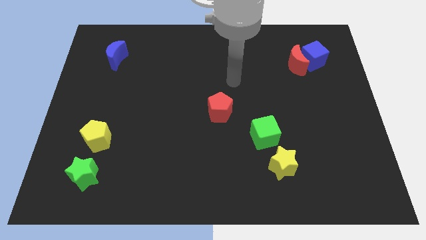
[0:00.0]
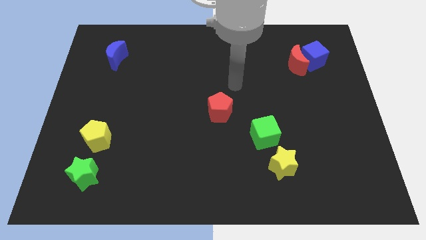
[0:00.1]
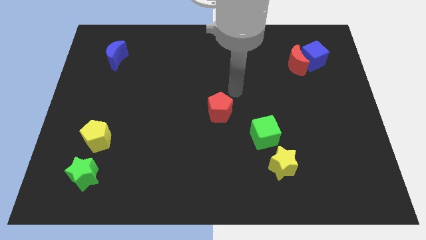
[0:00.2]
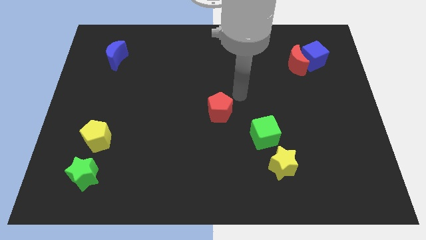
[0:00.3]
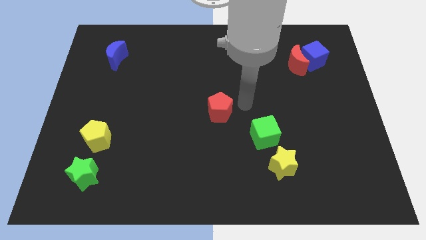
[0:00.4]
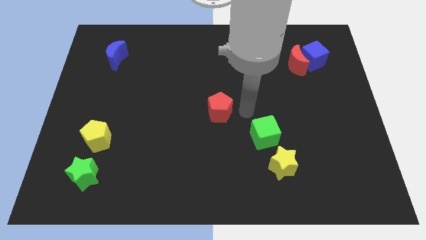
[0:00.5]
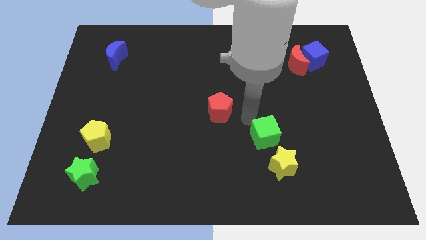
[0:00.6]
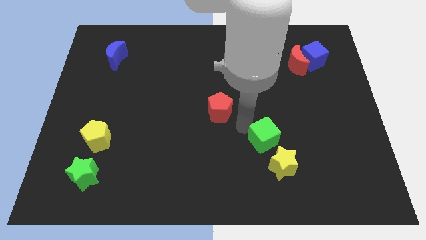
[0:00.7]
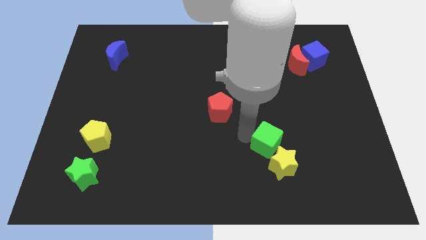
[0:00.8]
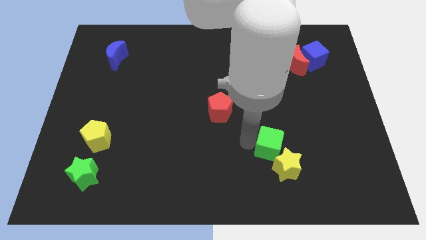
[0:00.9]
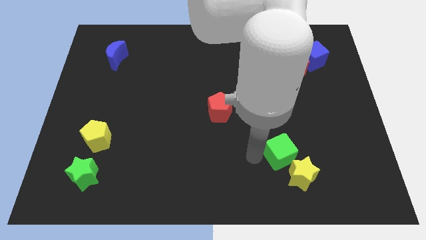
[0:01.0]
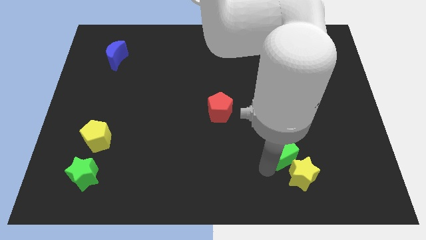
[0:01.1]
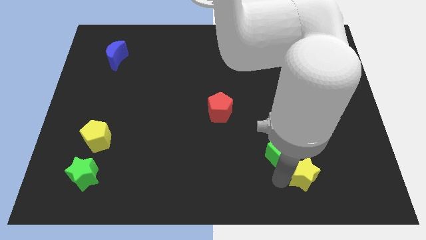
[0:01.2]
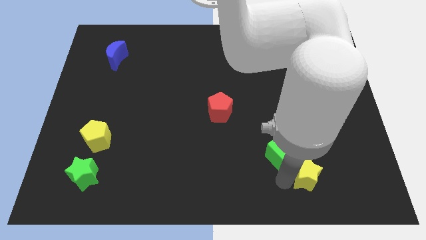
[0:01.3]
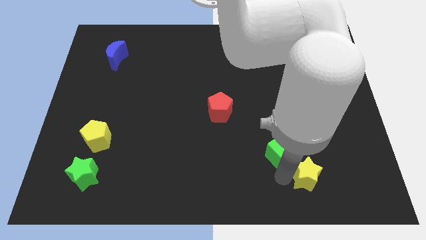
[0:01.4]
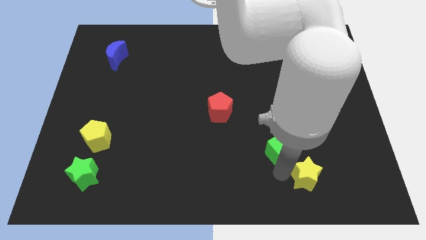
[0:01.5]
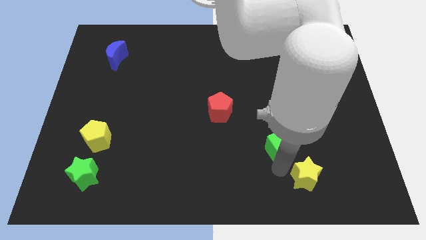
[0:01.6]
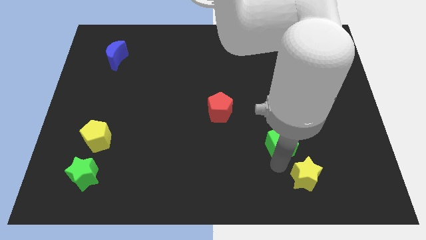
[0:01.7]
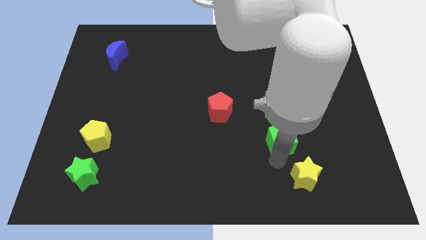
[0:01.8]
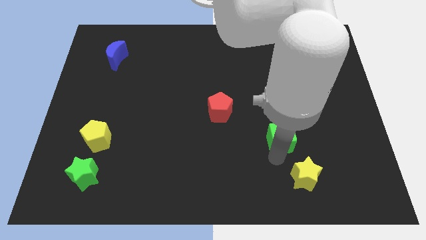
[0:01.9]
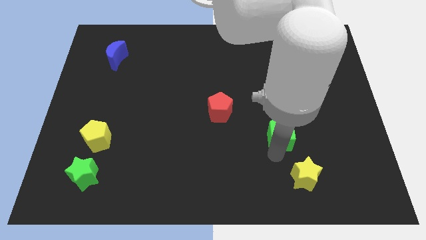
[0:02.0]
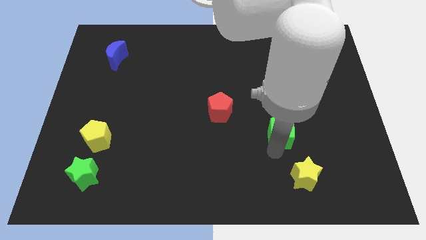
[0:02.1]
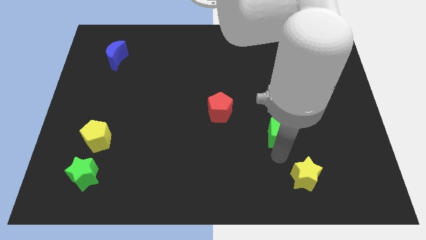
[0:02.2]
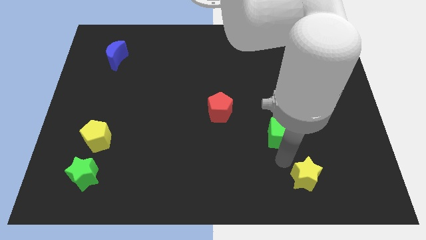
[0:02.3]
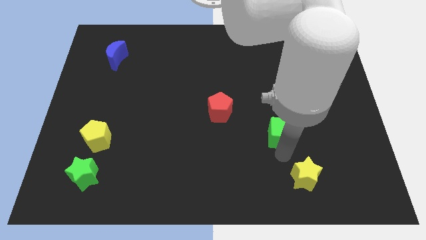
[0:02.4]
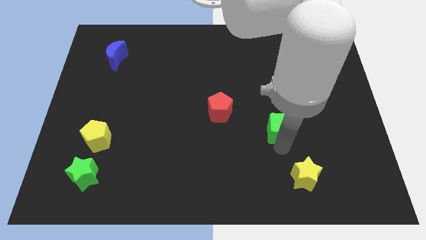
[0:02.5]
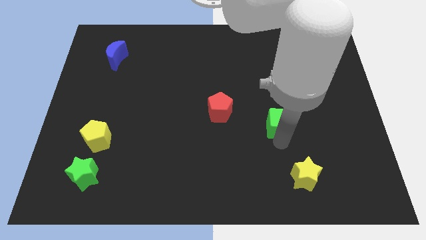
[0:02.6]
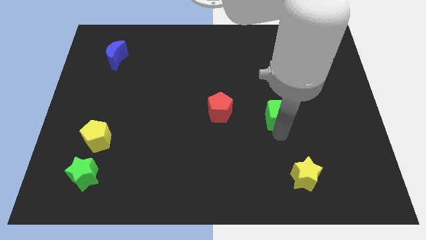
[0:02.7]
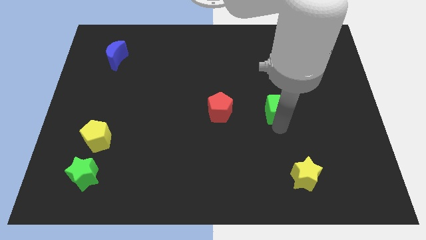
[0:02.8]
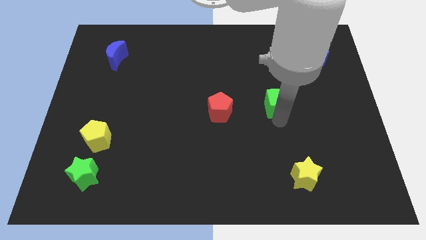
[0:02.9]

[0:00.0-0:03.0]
move the green cube up slightly

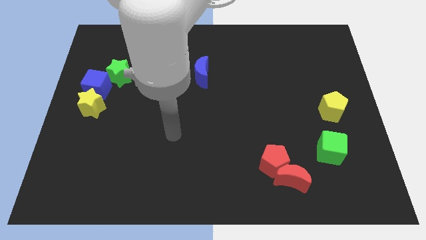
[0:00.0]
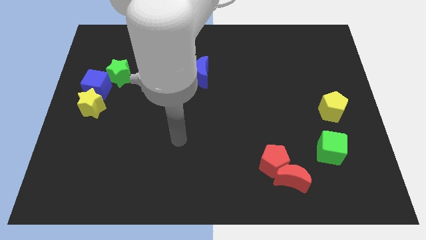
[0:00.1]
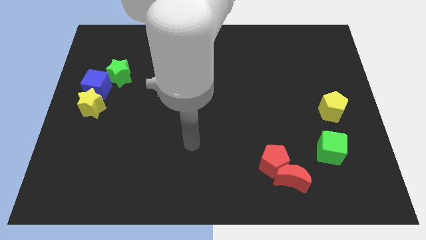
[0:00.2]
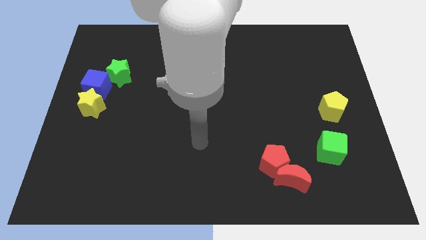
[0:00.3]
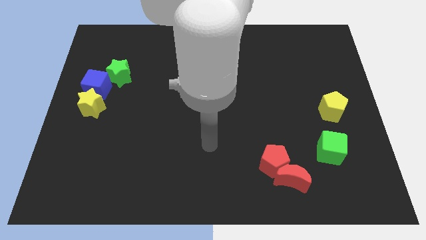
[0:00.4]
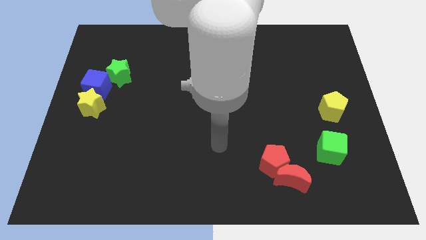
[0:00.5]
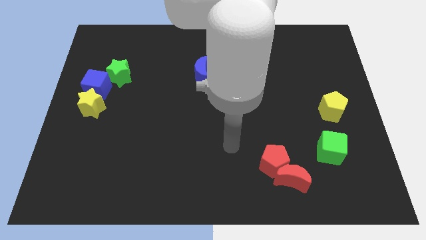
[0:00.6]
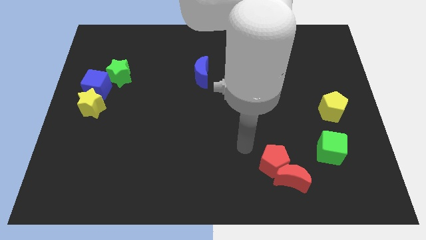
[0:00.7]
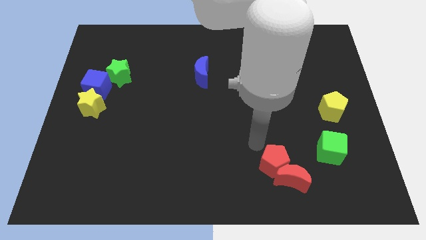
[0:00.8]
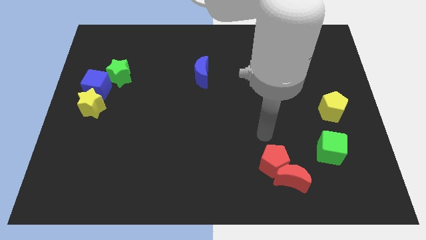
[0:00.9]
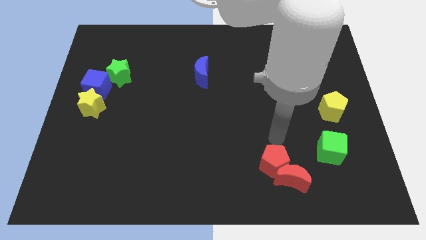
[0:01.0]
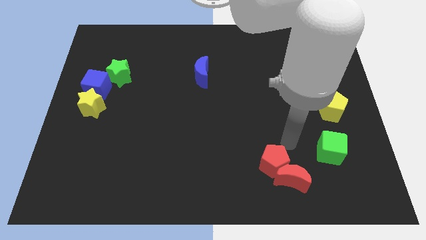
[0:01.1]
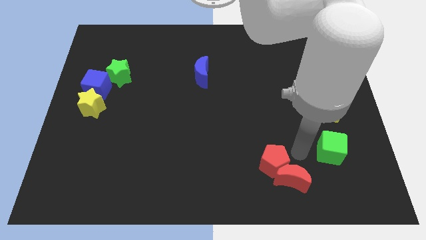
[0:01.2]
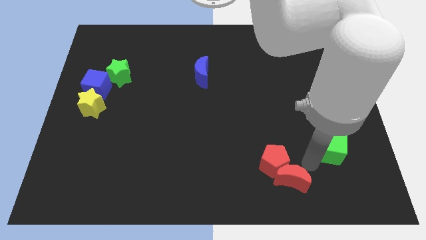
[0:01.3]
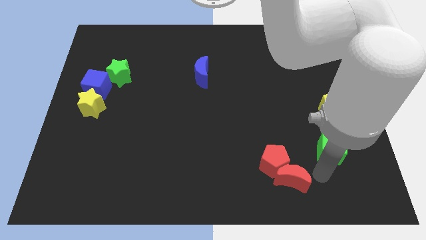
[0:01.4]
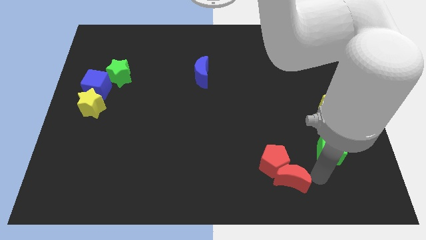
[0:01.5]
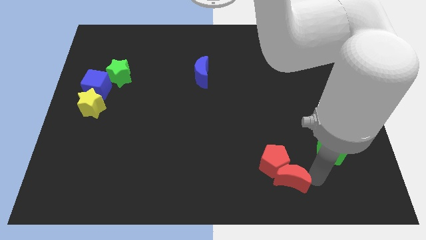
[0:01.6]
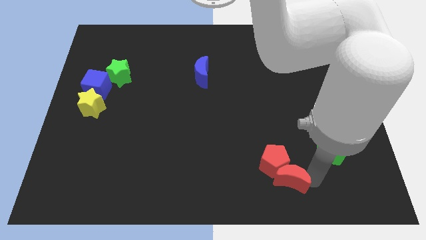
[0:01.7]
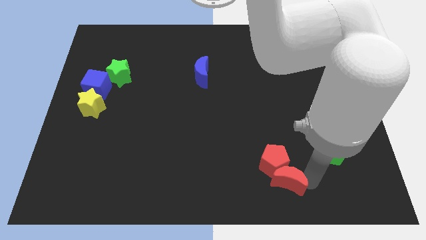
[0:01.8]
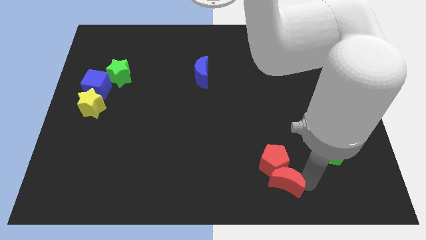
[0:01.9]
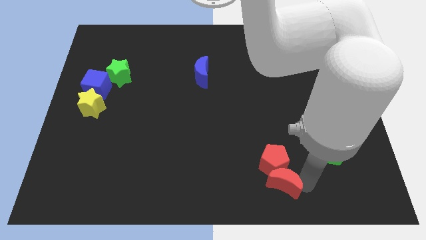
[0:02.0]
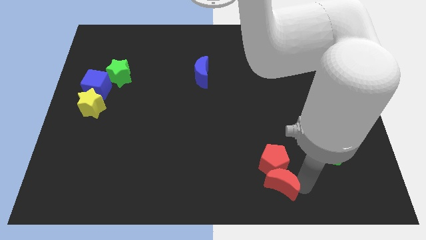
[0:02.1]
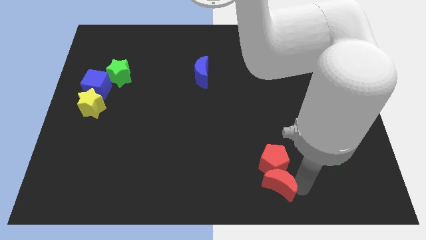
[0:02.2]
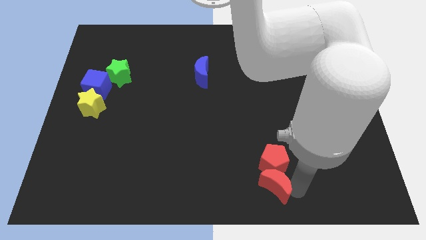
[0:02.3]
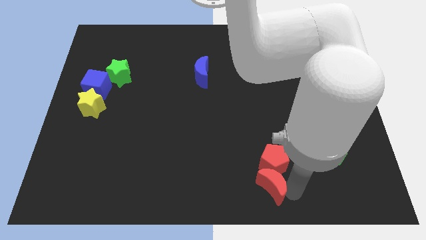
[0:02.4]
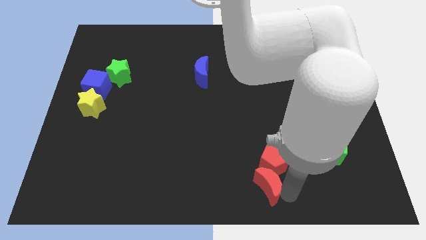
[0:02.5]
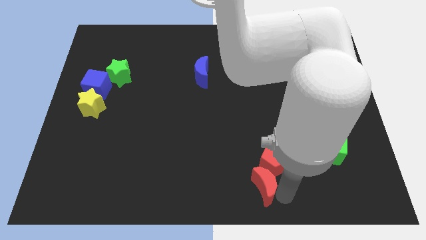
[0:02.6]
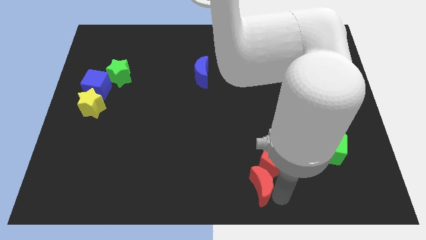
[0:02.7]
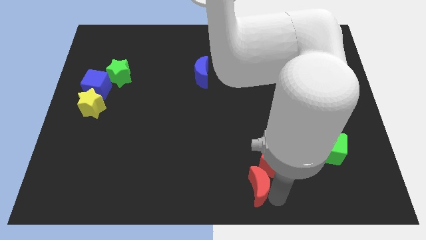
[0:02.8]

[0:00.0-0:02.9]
slide the red moon left somewhat

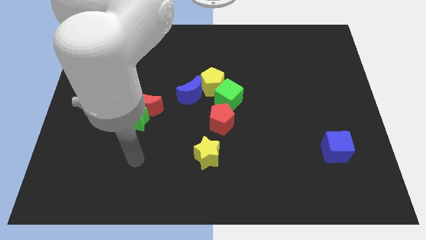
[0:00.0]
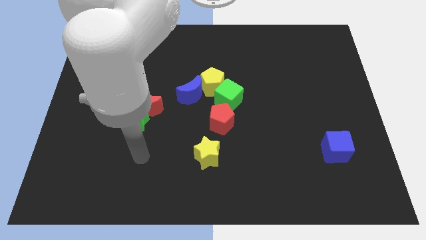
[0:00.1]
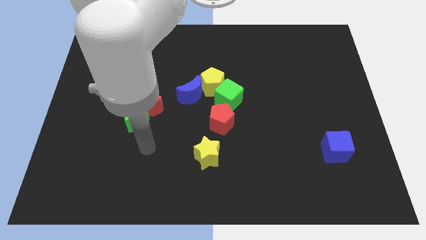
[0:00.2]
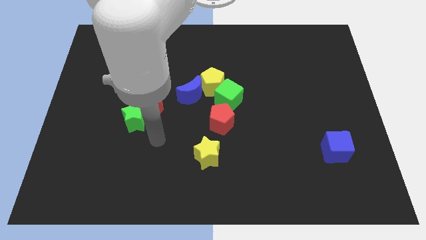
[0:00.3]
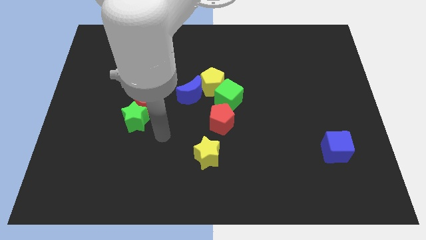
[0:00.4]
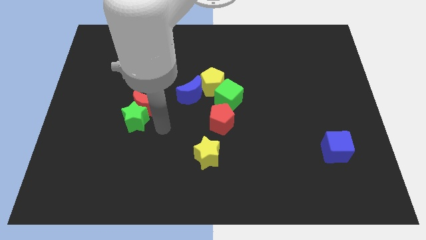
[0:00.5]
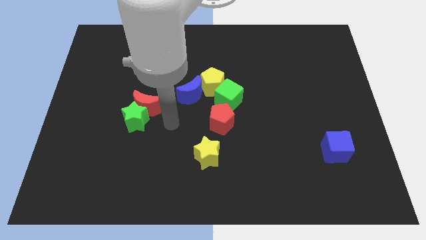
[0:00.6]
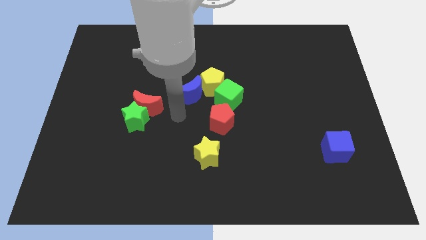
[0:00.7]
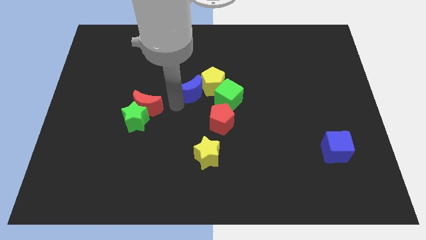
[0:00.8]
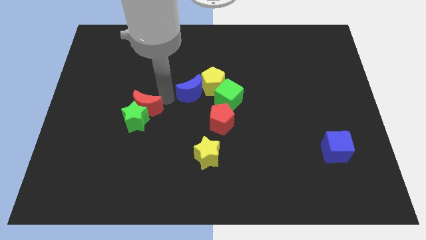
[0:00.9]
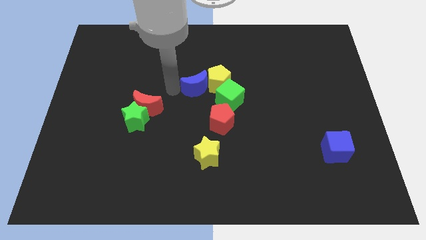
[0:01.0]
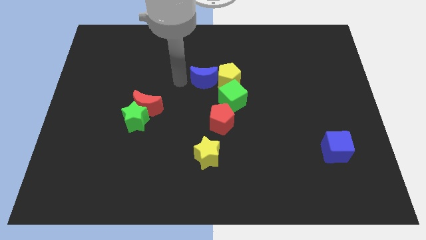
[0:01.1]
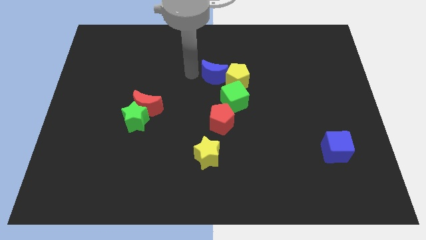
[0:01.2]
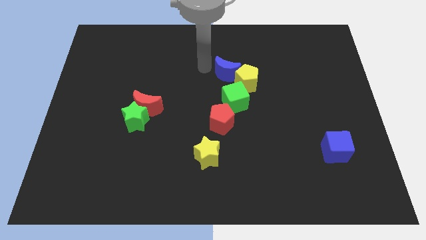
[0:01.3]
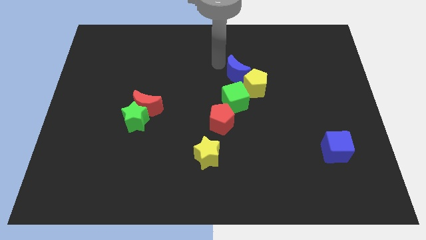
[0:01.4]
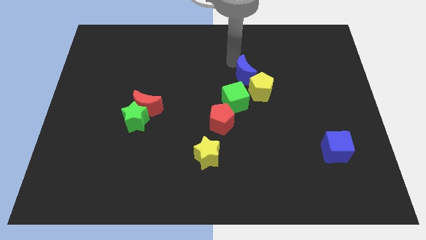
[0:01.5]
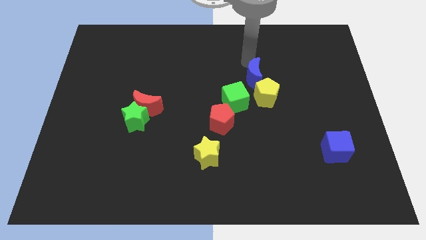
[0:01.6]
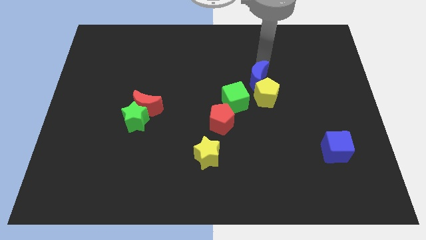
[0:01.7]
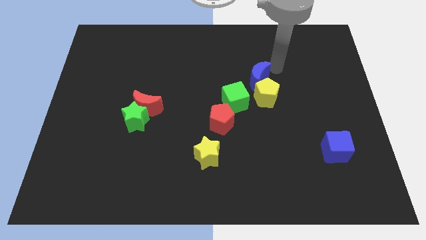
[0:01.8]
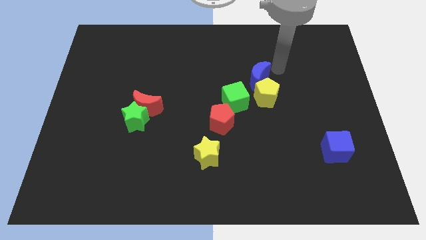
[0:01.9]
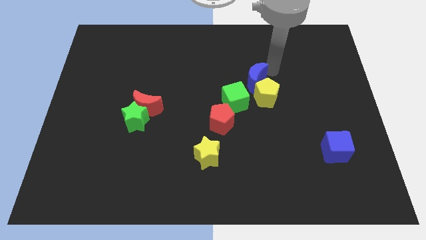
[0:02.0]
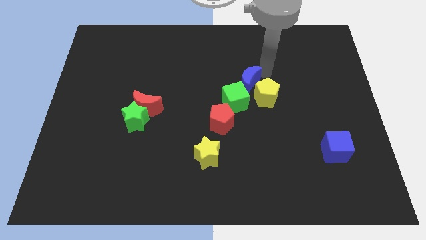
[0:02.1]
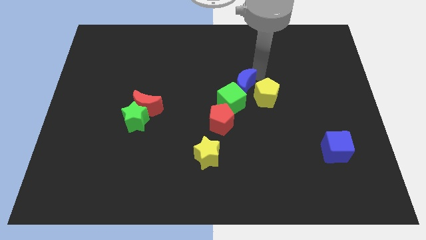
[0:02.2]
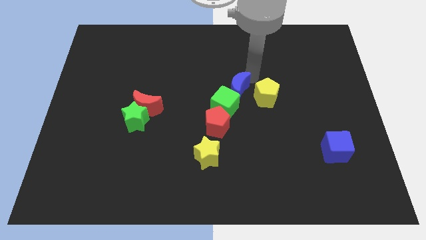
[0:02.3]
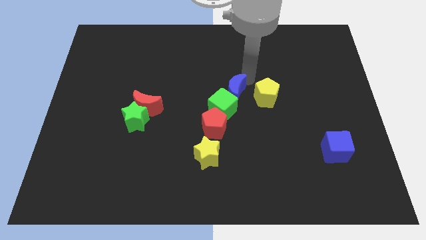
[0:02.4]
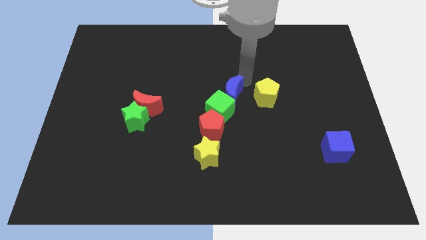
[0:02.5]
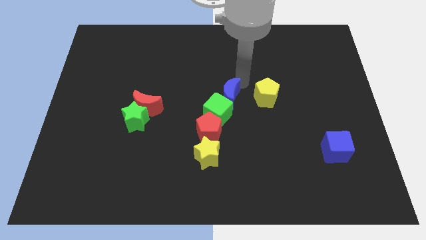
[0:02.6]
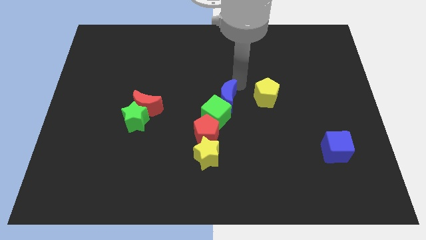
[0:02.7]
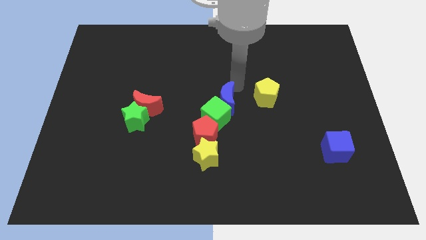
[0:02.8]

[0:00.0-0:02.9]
push the blue moon somewhat diagonally downwards and to the right
